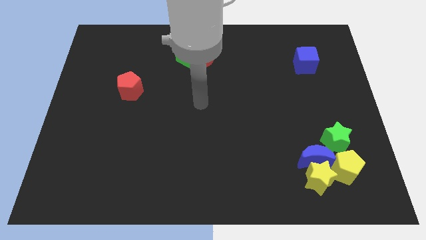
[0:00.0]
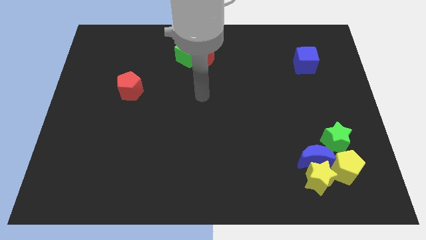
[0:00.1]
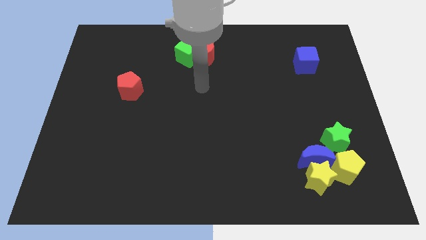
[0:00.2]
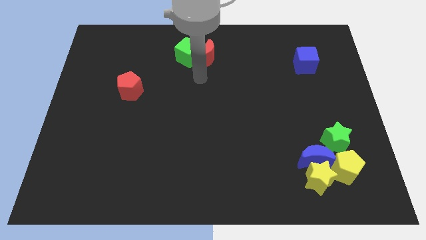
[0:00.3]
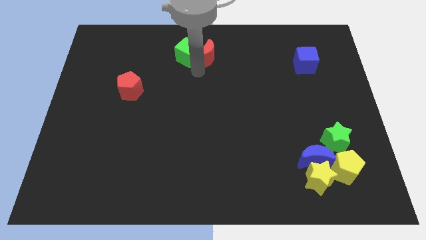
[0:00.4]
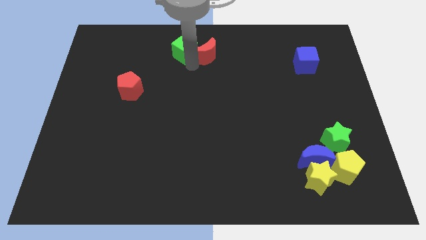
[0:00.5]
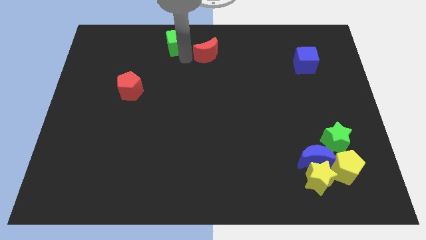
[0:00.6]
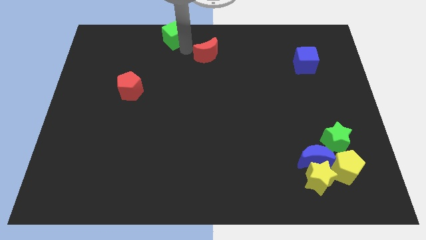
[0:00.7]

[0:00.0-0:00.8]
separate the red moon from the green cube

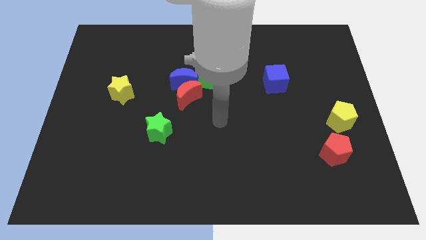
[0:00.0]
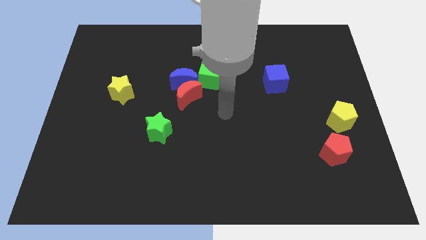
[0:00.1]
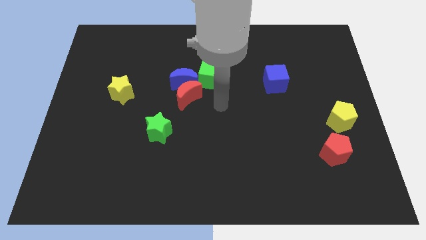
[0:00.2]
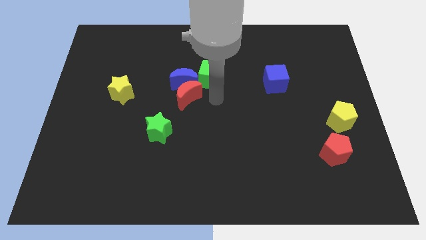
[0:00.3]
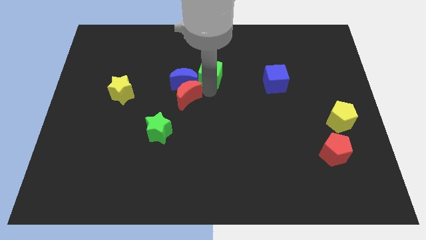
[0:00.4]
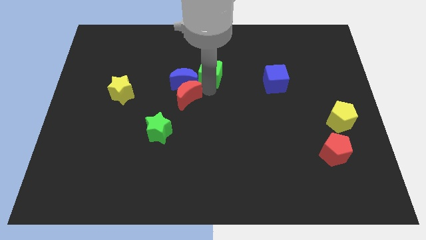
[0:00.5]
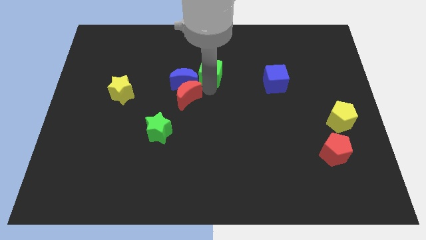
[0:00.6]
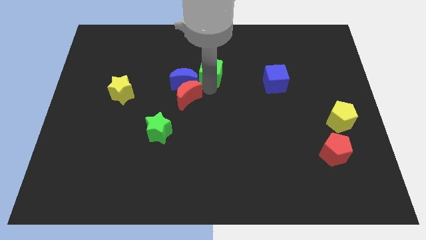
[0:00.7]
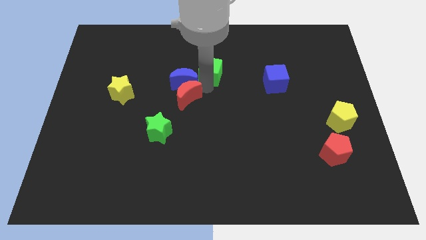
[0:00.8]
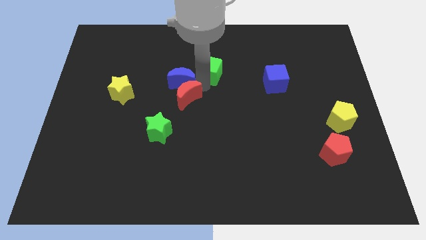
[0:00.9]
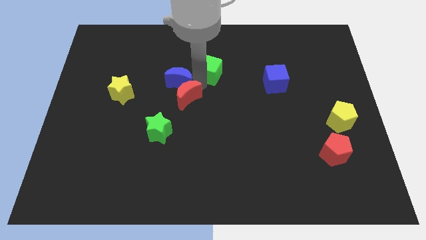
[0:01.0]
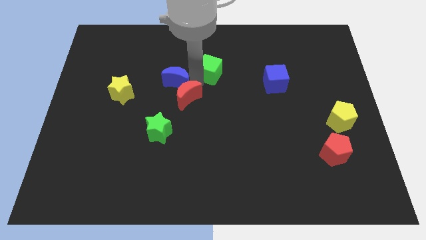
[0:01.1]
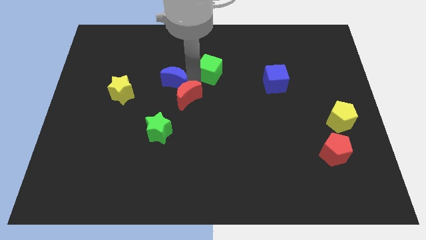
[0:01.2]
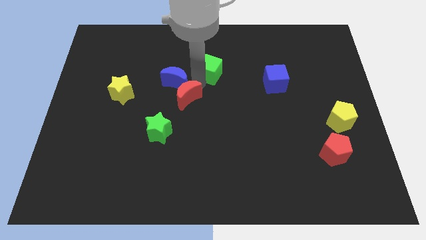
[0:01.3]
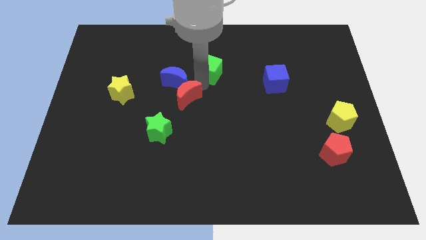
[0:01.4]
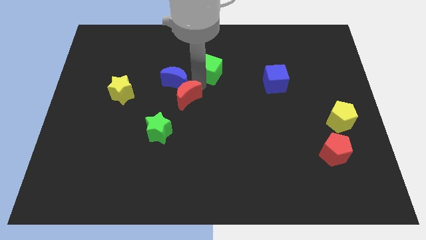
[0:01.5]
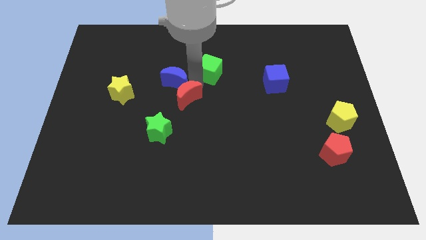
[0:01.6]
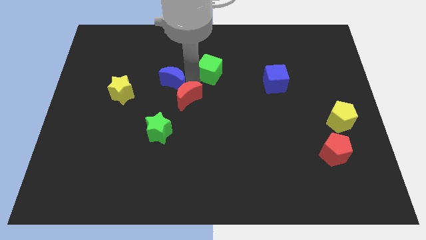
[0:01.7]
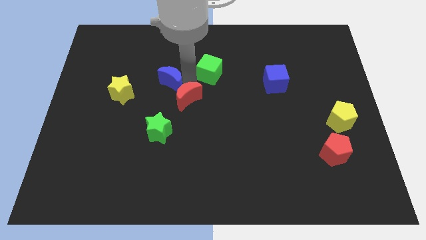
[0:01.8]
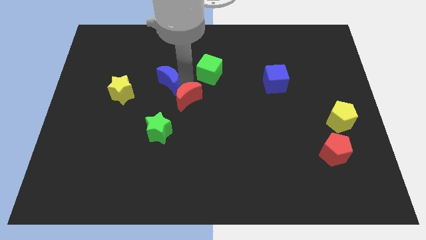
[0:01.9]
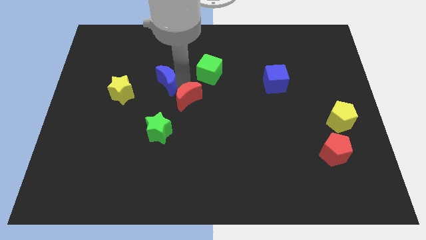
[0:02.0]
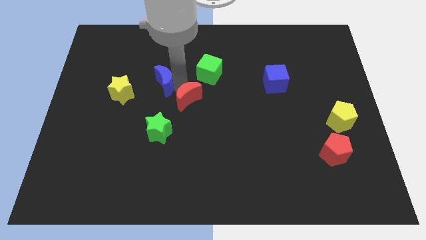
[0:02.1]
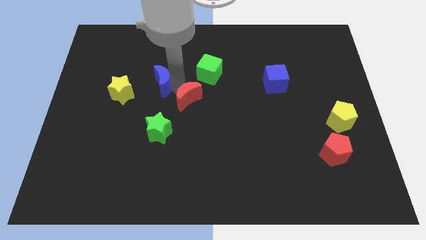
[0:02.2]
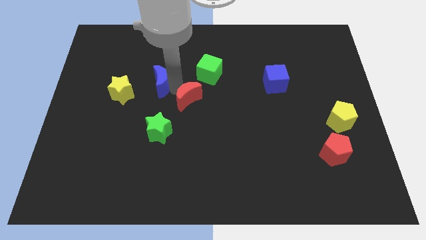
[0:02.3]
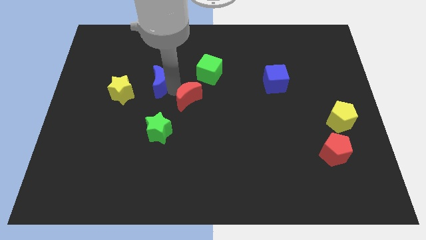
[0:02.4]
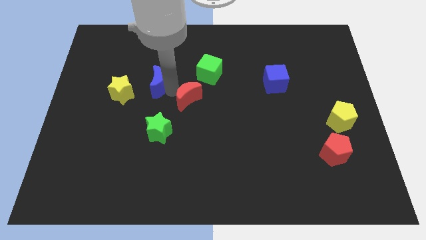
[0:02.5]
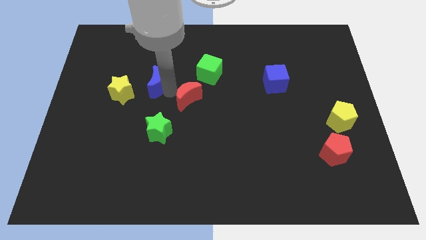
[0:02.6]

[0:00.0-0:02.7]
move the blue moon away from the red moon and green cube

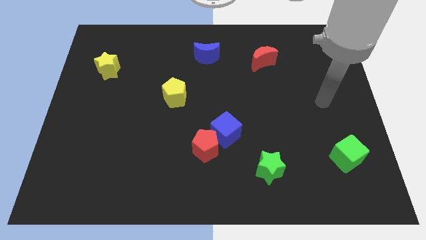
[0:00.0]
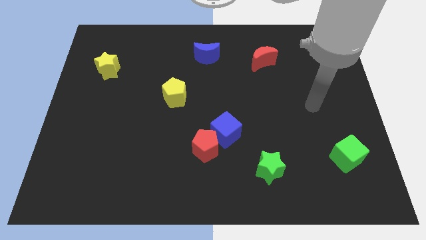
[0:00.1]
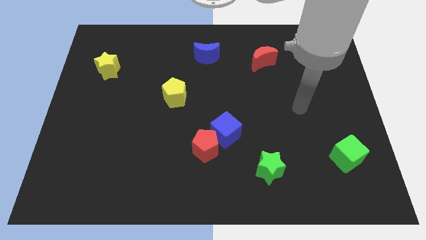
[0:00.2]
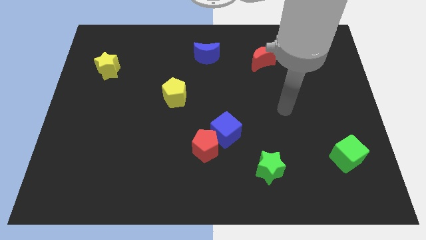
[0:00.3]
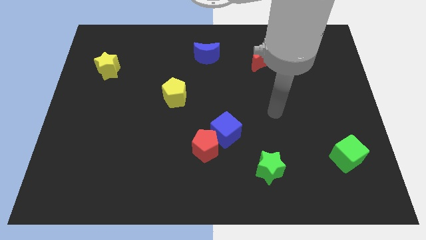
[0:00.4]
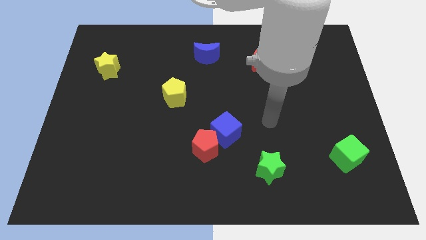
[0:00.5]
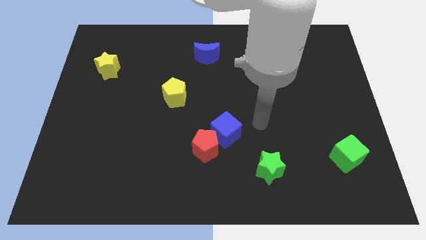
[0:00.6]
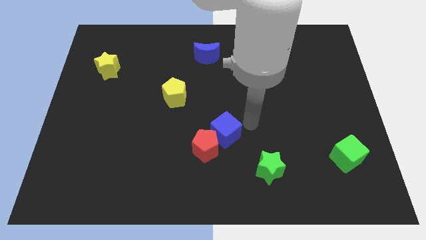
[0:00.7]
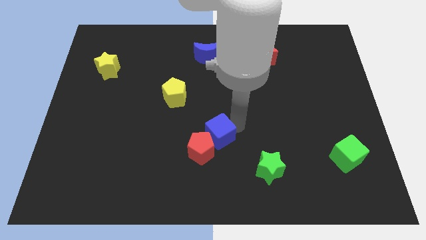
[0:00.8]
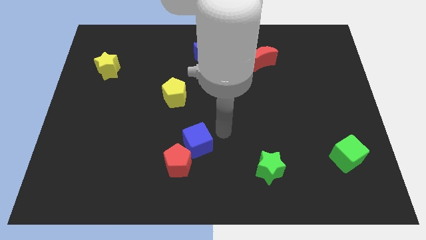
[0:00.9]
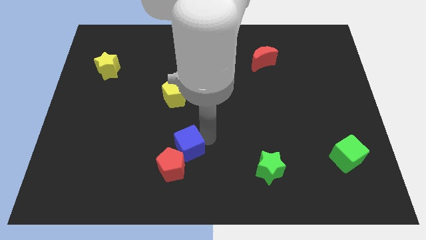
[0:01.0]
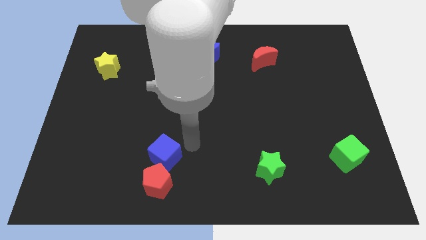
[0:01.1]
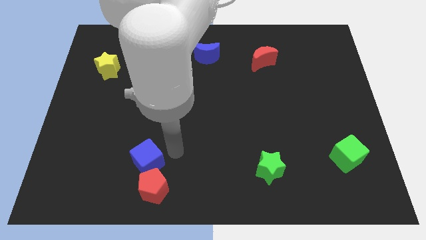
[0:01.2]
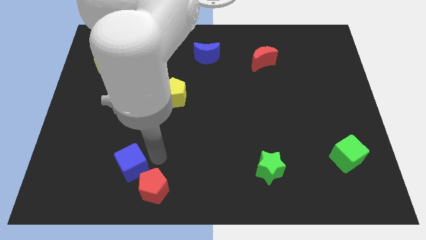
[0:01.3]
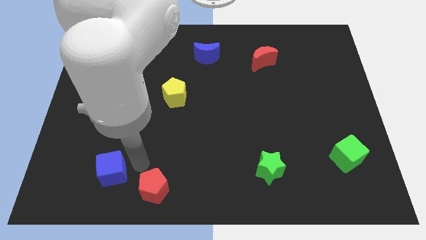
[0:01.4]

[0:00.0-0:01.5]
pull the red pentagon apart from the blue cube

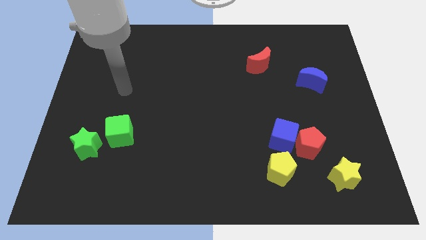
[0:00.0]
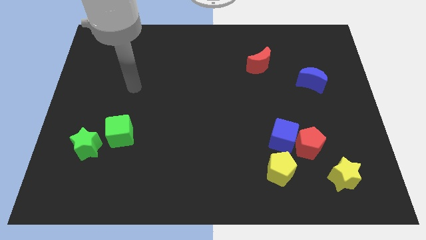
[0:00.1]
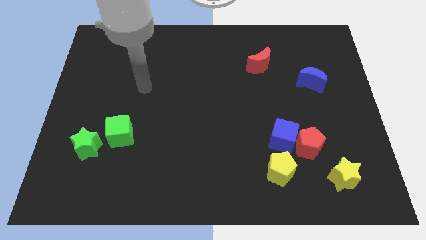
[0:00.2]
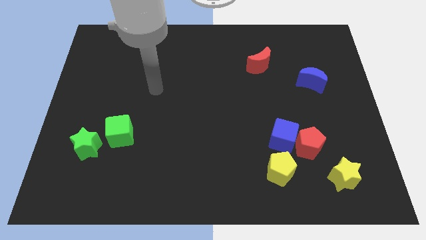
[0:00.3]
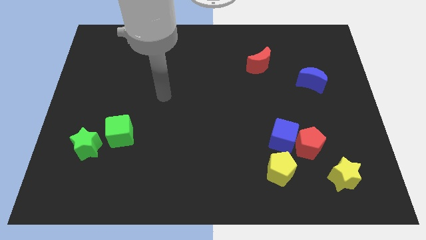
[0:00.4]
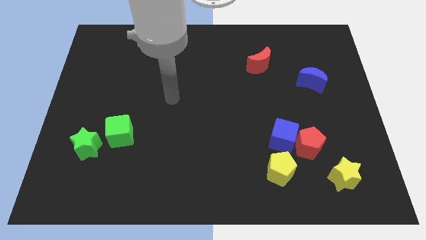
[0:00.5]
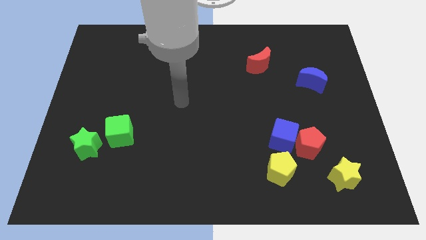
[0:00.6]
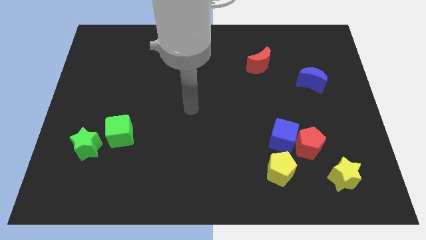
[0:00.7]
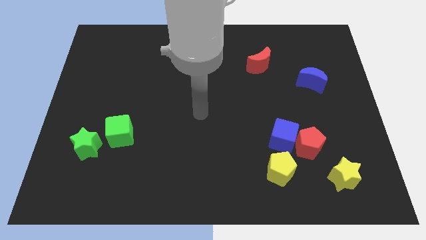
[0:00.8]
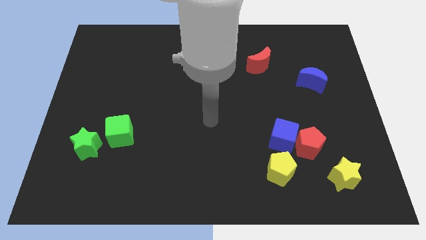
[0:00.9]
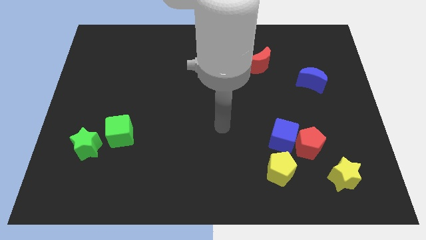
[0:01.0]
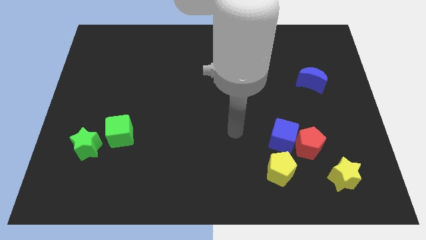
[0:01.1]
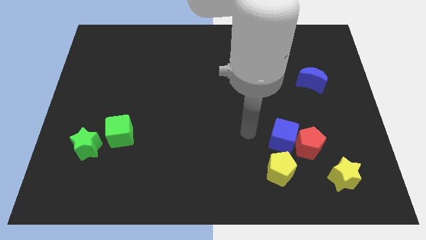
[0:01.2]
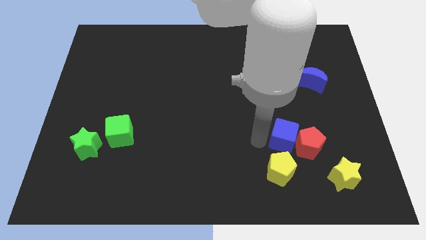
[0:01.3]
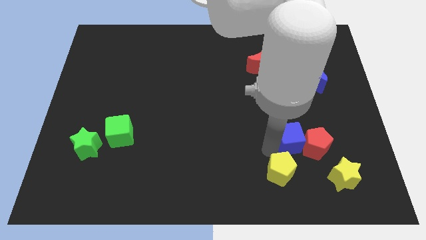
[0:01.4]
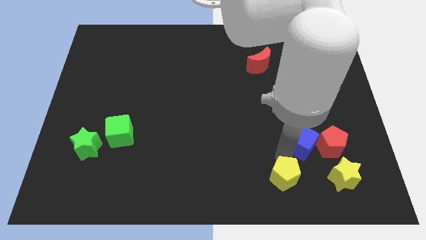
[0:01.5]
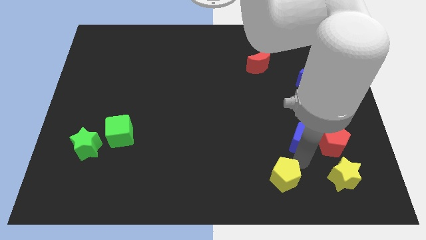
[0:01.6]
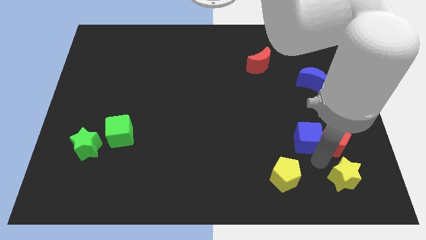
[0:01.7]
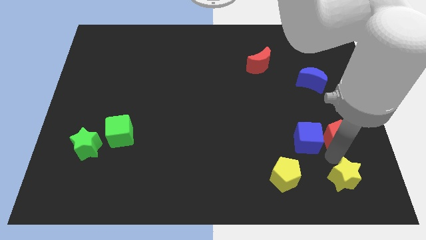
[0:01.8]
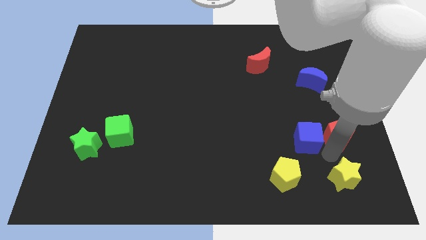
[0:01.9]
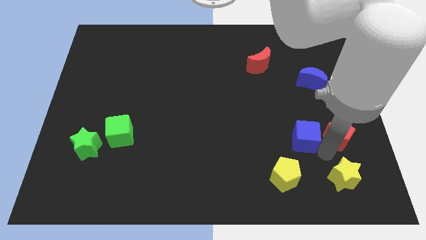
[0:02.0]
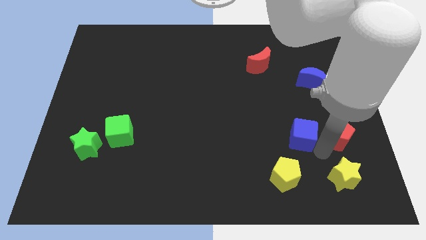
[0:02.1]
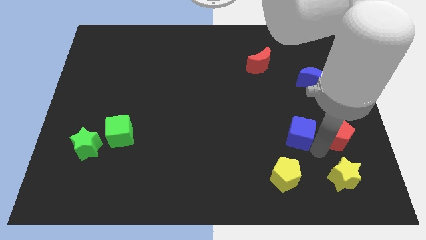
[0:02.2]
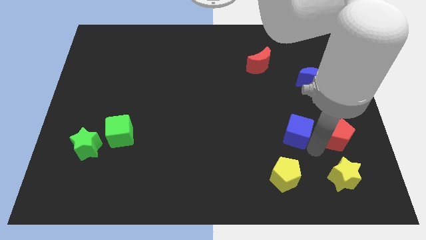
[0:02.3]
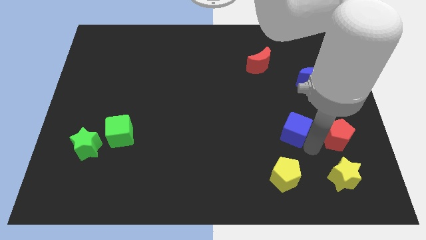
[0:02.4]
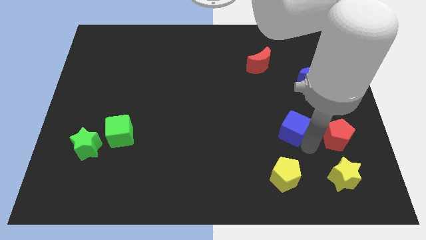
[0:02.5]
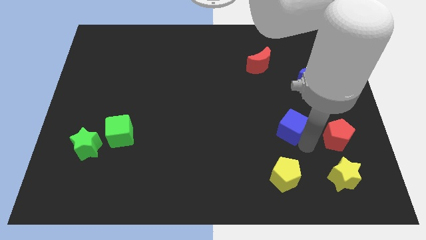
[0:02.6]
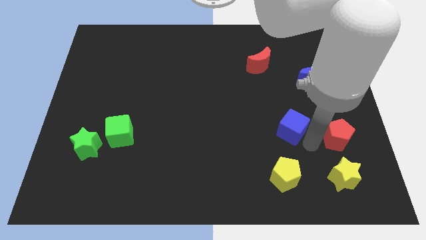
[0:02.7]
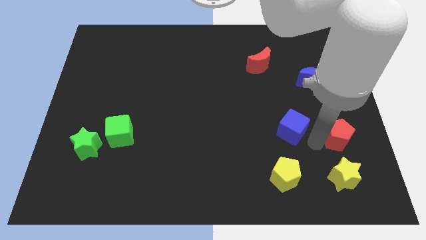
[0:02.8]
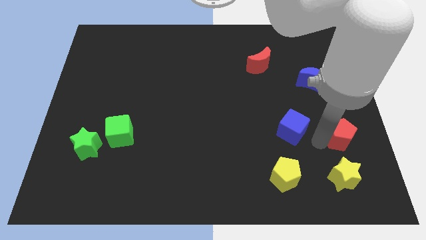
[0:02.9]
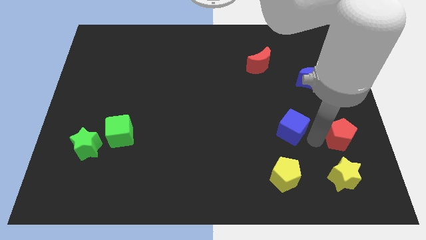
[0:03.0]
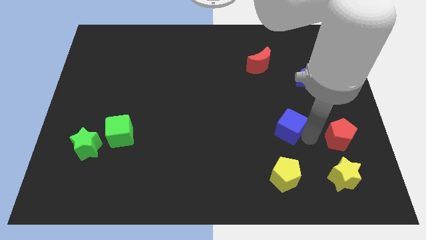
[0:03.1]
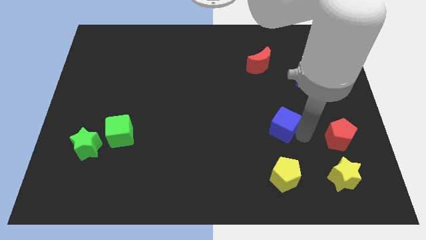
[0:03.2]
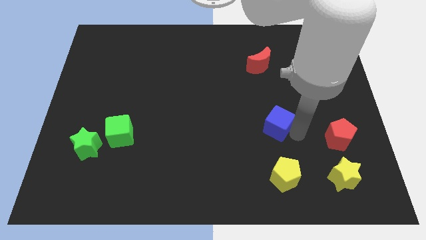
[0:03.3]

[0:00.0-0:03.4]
pull the blue cube apart from the red pentagon and yellow pentagon

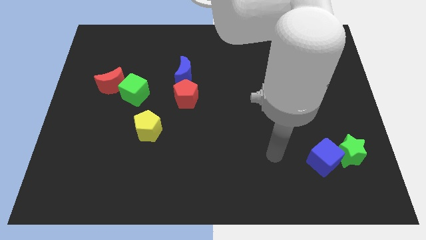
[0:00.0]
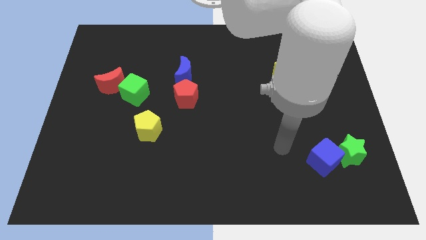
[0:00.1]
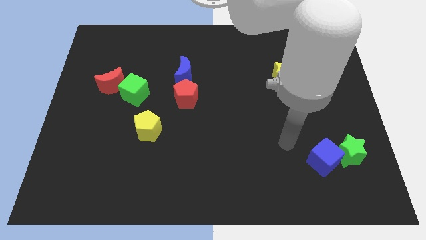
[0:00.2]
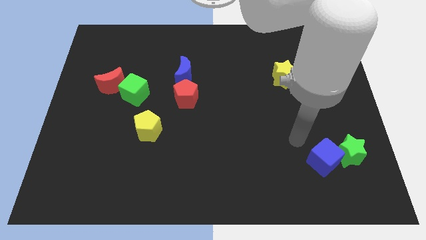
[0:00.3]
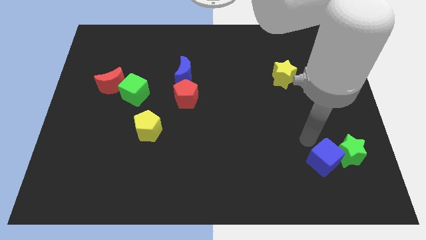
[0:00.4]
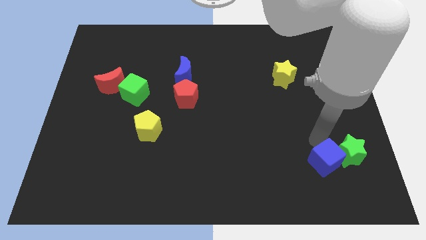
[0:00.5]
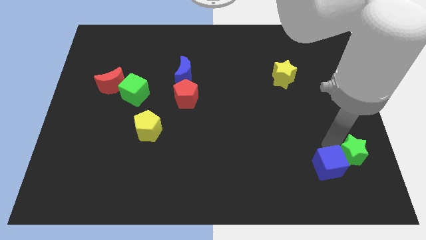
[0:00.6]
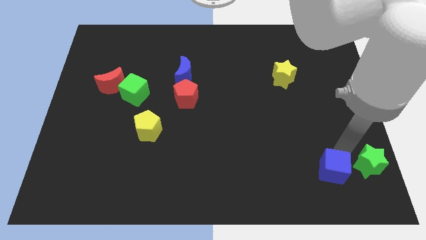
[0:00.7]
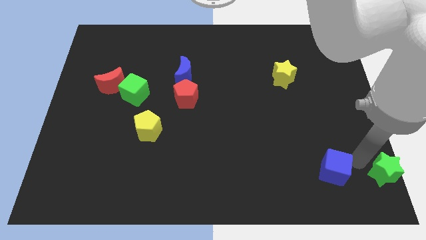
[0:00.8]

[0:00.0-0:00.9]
separate the blue cube from the green star
